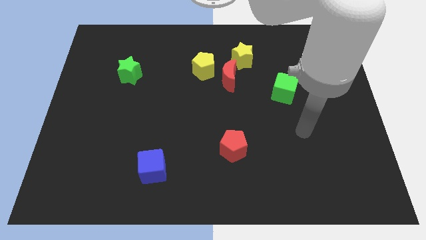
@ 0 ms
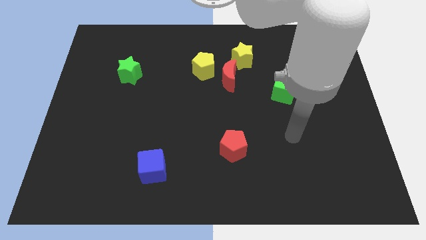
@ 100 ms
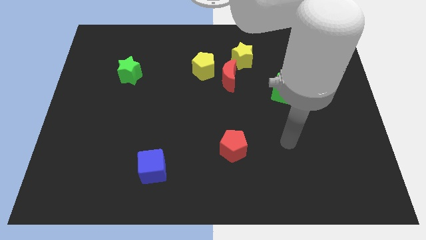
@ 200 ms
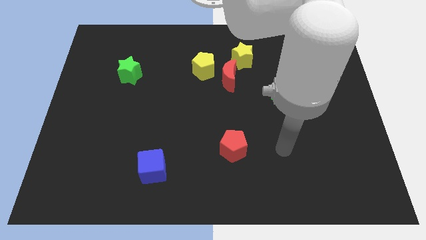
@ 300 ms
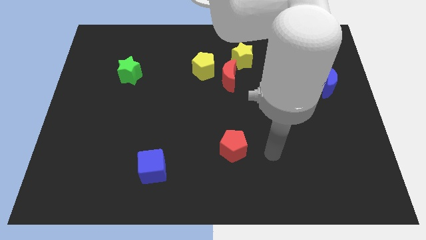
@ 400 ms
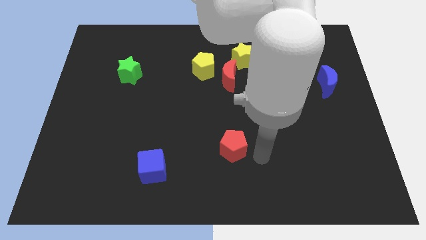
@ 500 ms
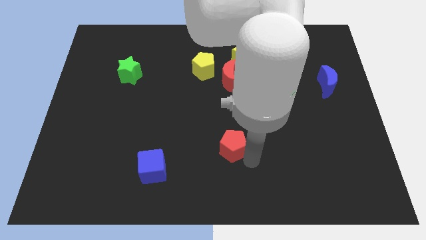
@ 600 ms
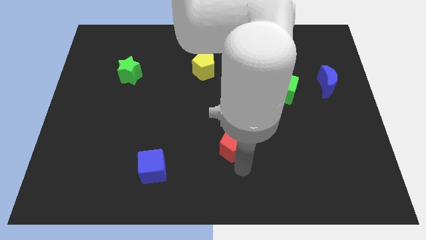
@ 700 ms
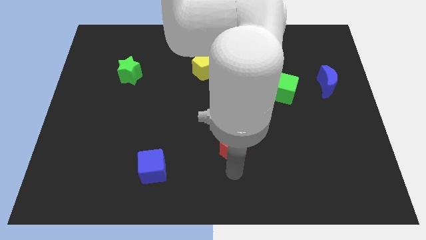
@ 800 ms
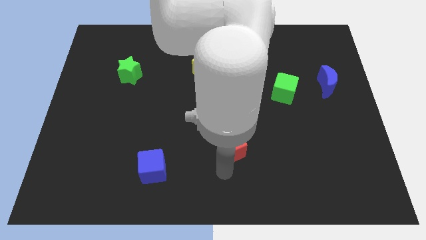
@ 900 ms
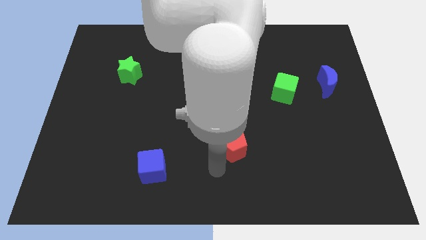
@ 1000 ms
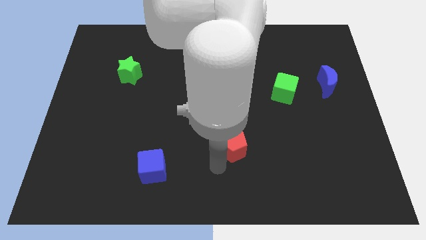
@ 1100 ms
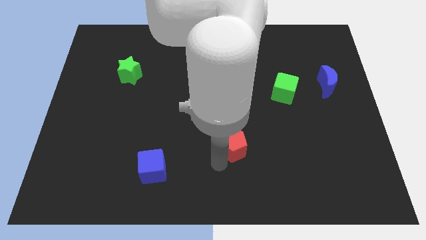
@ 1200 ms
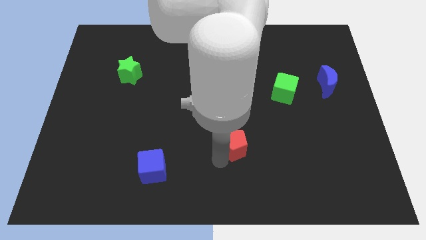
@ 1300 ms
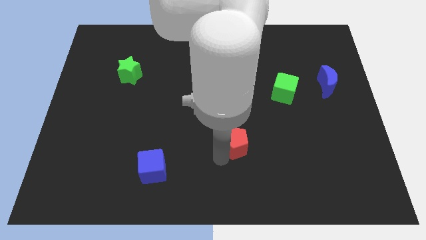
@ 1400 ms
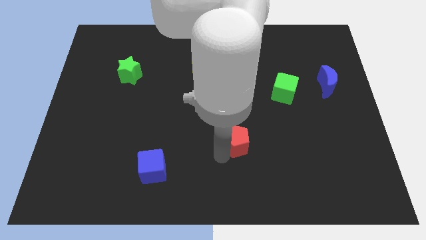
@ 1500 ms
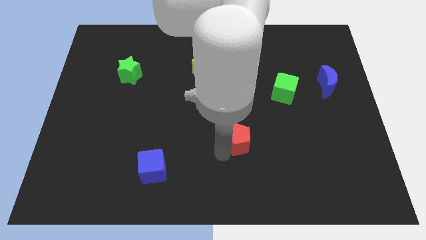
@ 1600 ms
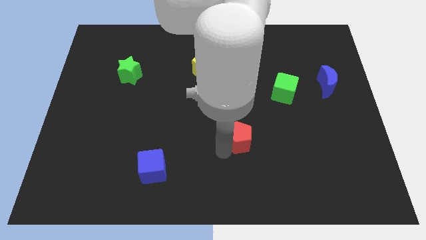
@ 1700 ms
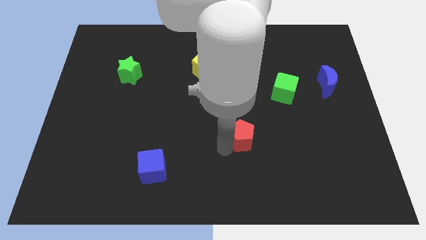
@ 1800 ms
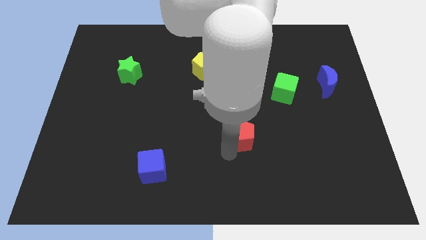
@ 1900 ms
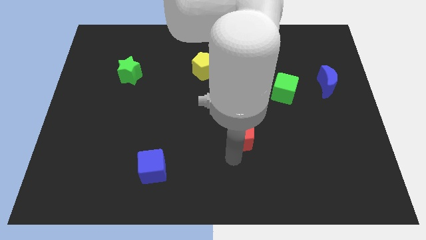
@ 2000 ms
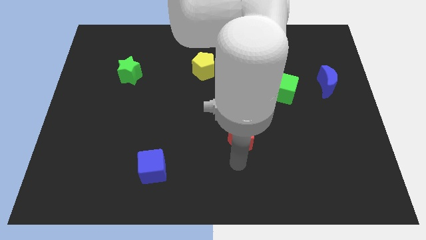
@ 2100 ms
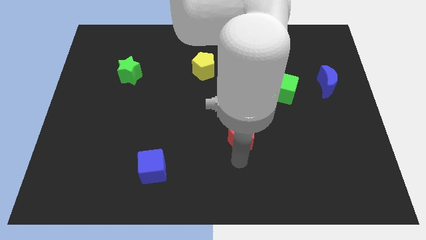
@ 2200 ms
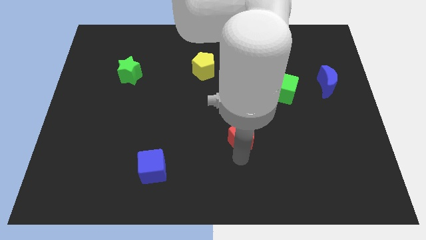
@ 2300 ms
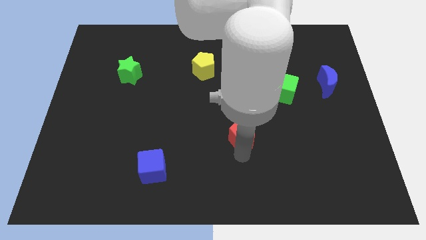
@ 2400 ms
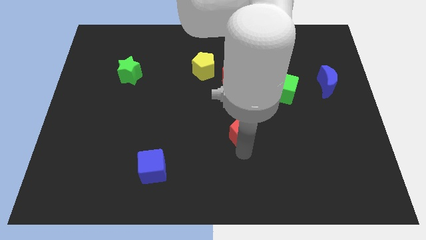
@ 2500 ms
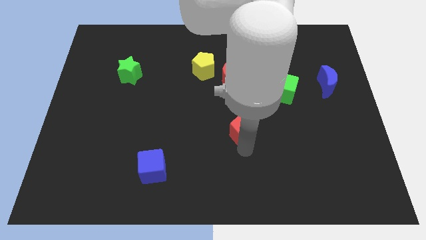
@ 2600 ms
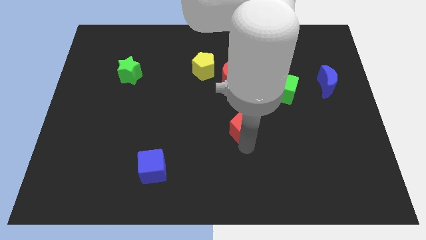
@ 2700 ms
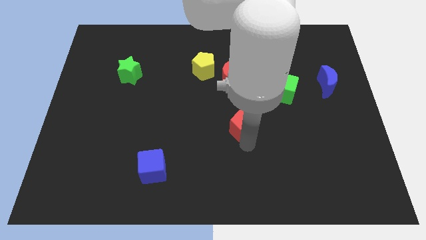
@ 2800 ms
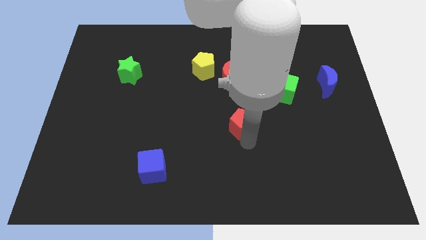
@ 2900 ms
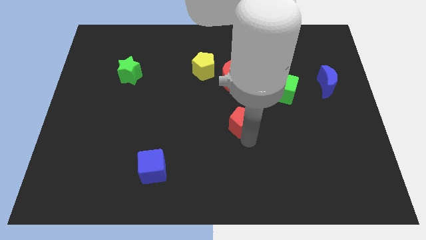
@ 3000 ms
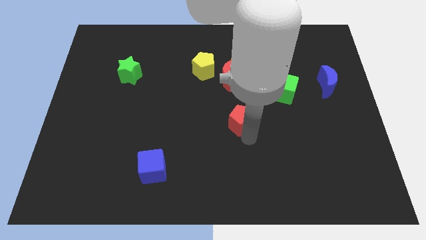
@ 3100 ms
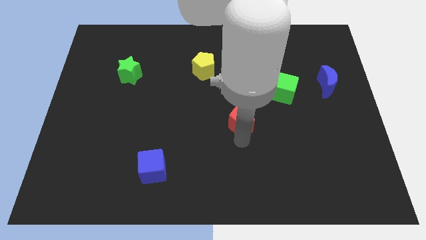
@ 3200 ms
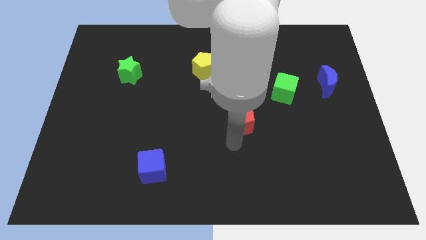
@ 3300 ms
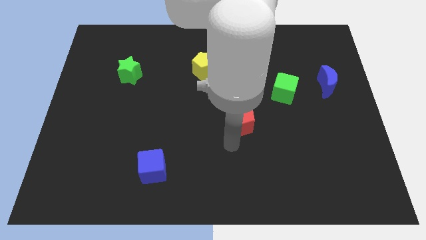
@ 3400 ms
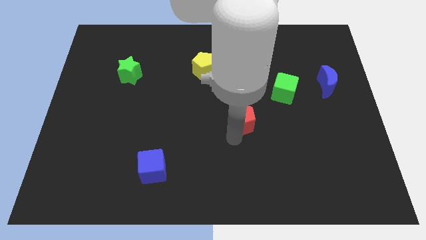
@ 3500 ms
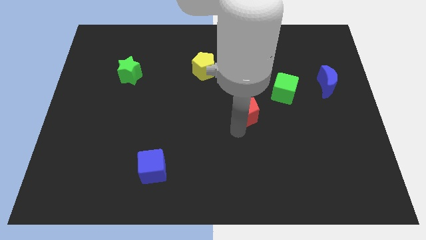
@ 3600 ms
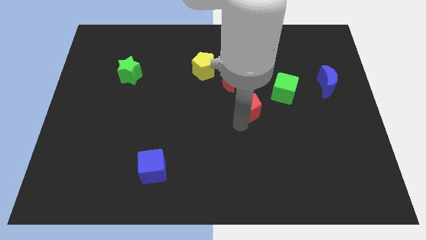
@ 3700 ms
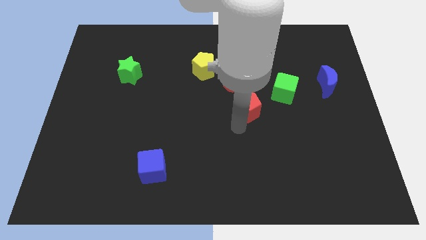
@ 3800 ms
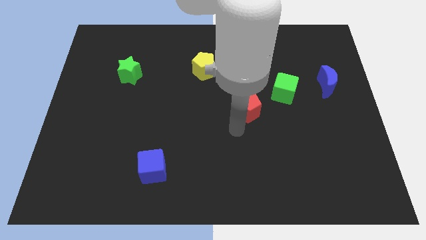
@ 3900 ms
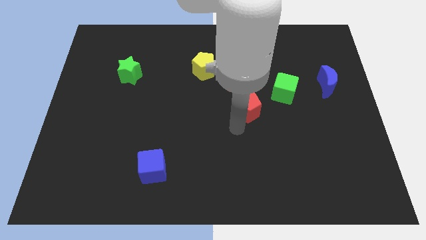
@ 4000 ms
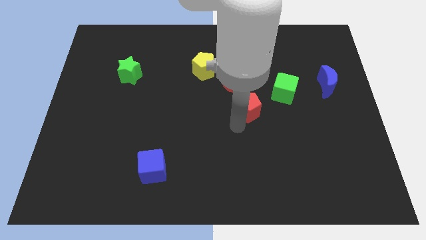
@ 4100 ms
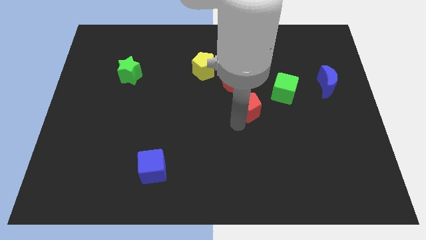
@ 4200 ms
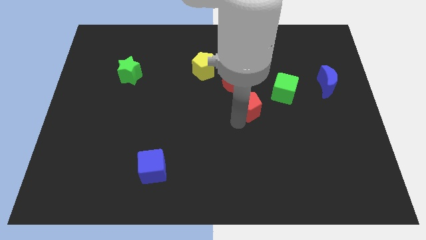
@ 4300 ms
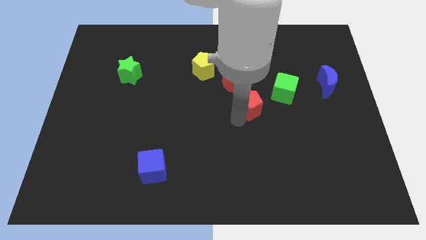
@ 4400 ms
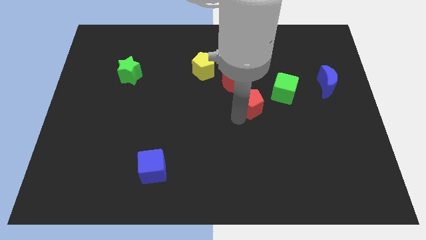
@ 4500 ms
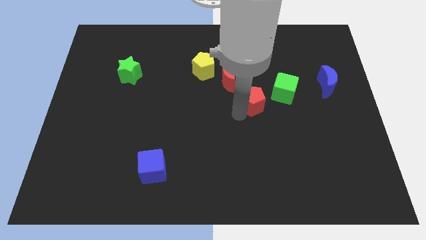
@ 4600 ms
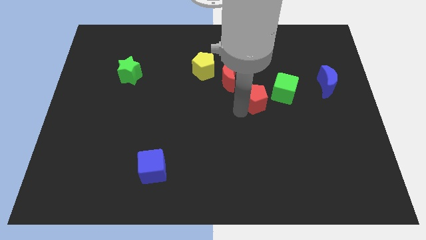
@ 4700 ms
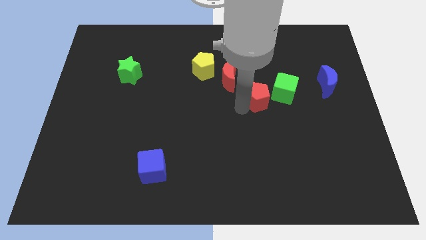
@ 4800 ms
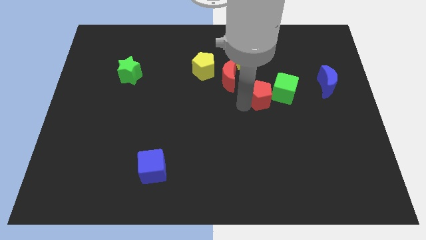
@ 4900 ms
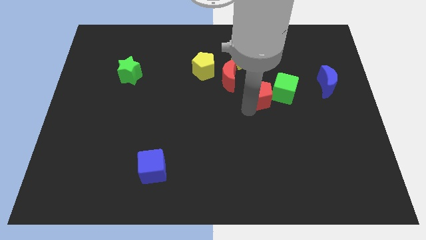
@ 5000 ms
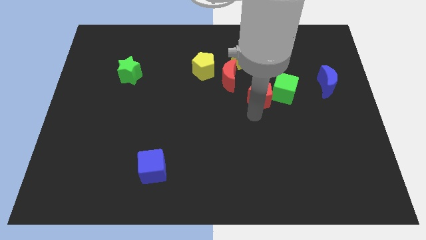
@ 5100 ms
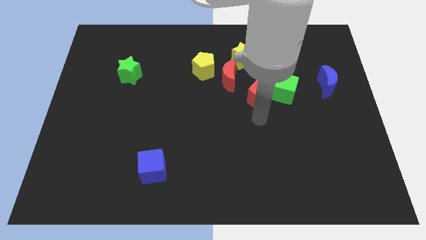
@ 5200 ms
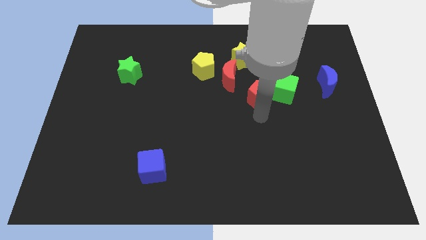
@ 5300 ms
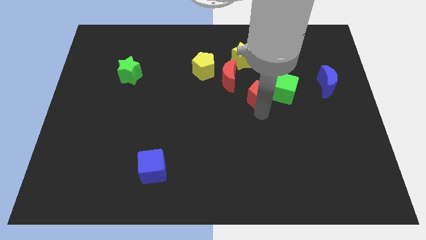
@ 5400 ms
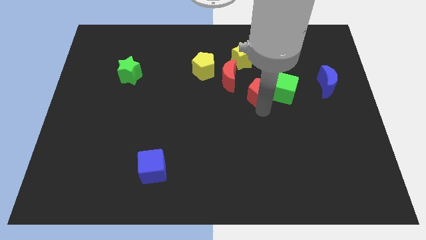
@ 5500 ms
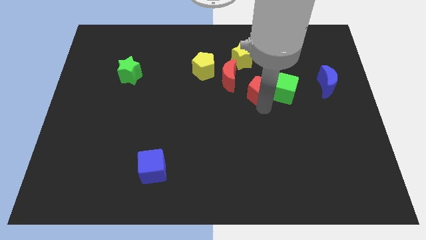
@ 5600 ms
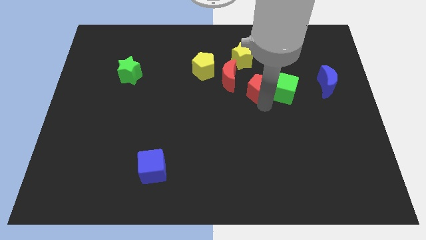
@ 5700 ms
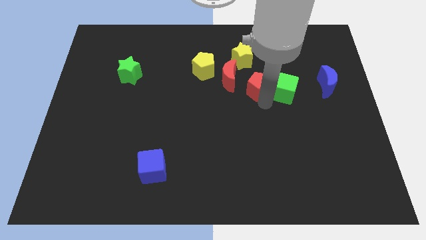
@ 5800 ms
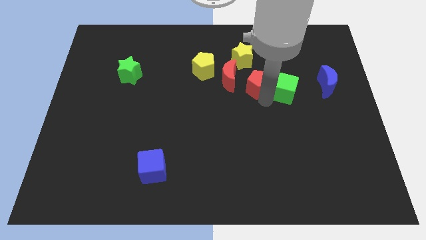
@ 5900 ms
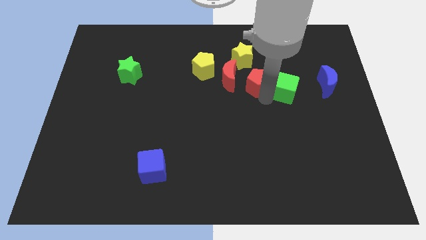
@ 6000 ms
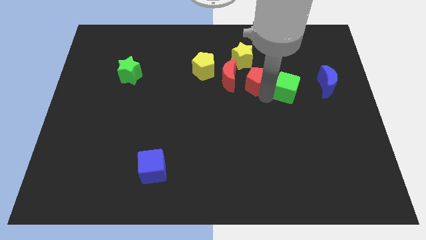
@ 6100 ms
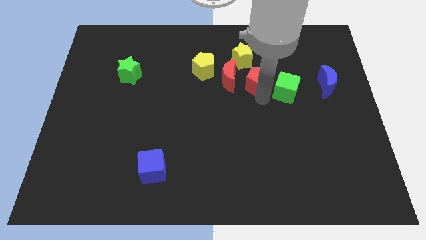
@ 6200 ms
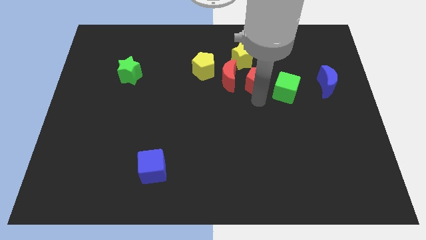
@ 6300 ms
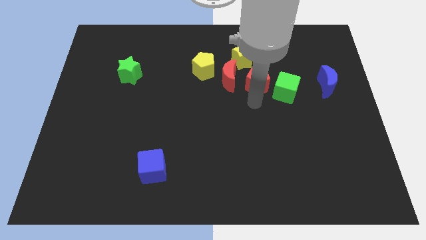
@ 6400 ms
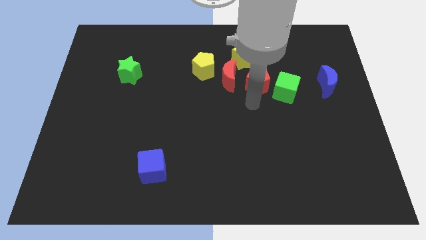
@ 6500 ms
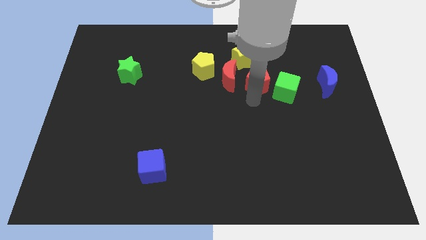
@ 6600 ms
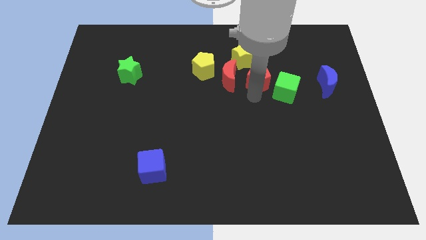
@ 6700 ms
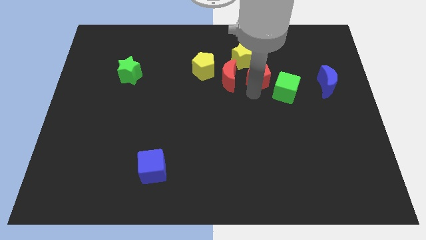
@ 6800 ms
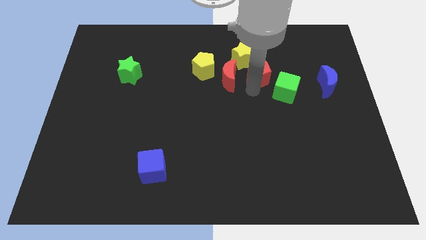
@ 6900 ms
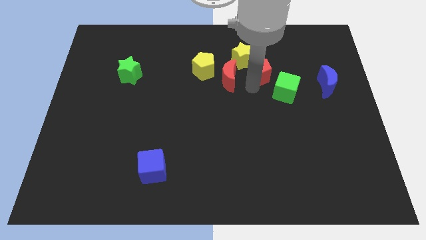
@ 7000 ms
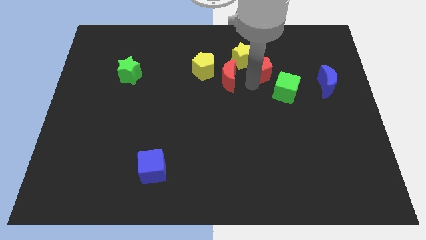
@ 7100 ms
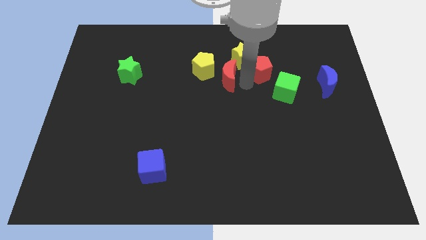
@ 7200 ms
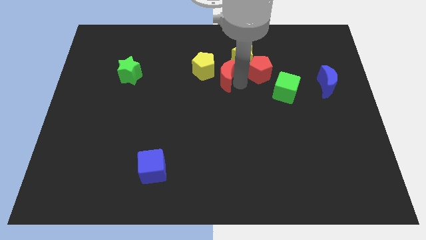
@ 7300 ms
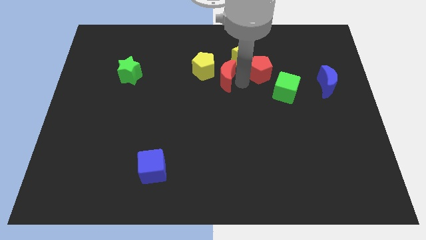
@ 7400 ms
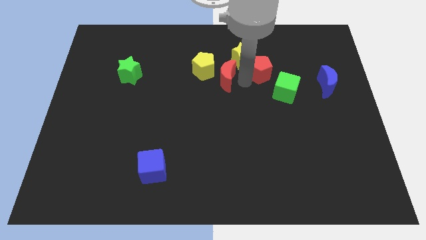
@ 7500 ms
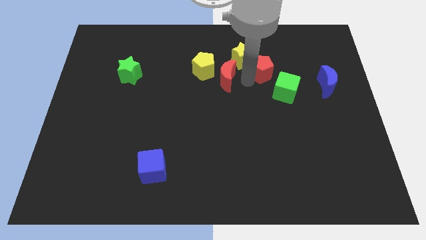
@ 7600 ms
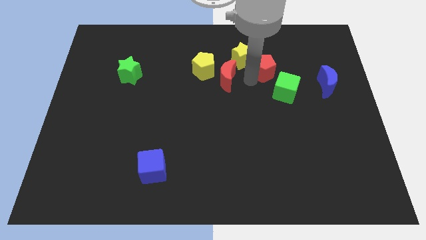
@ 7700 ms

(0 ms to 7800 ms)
slide the red pentagon to the top side of the green cube
